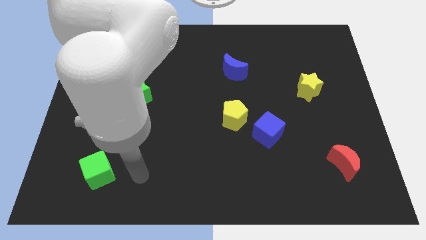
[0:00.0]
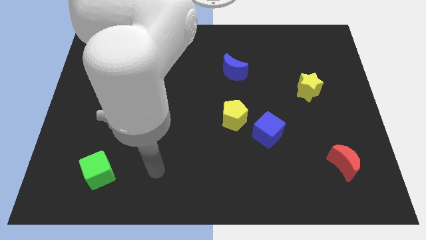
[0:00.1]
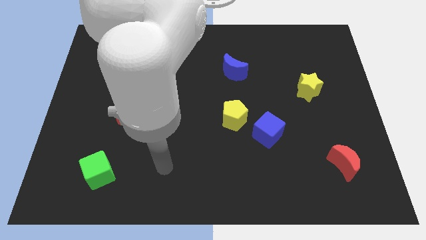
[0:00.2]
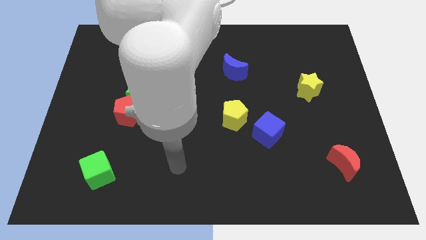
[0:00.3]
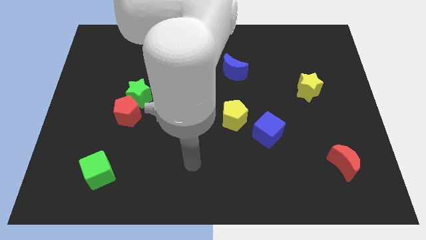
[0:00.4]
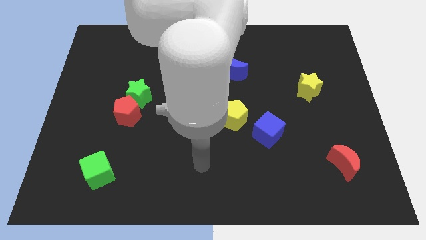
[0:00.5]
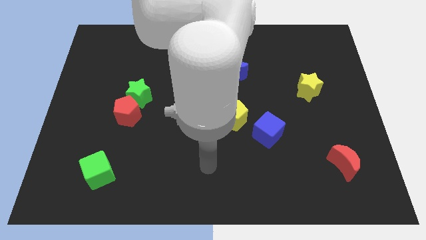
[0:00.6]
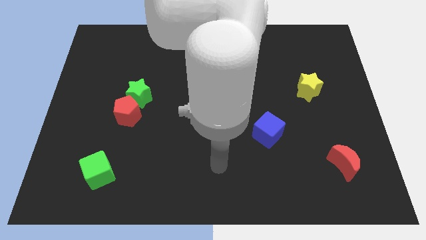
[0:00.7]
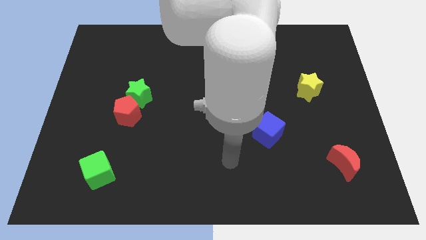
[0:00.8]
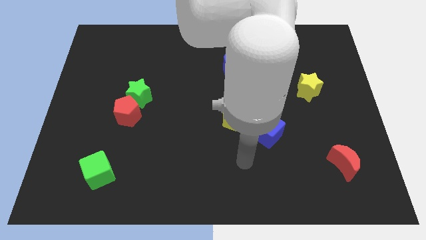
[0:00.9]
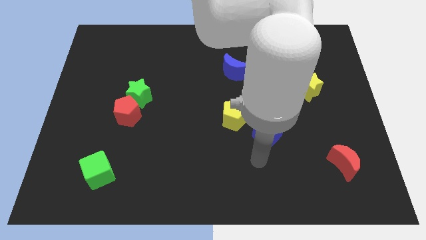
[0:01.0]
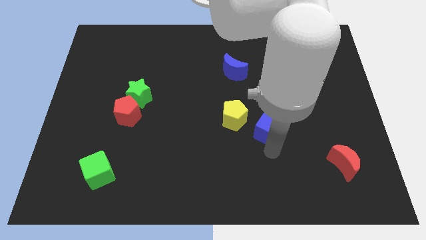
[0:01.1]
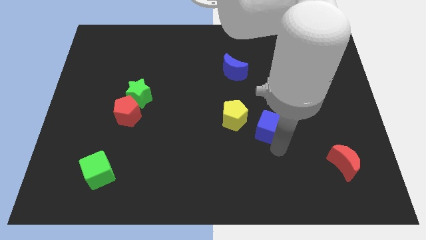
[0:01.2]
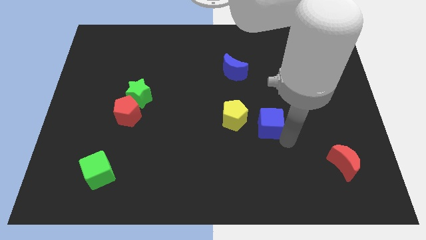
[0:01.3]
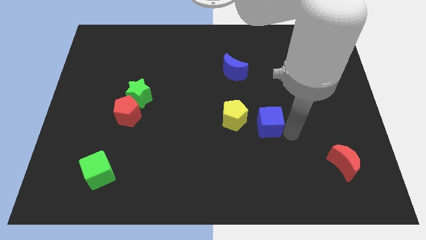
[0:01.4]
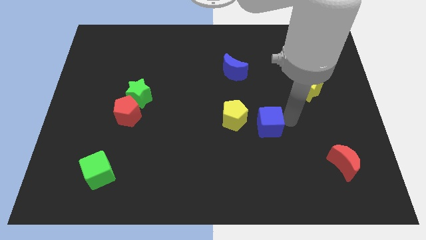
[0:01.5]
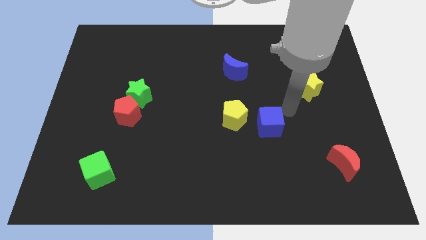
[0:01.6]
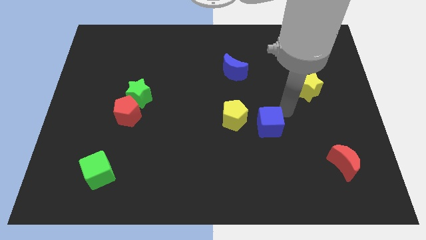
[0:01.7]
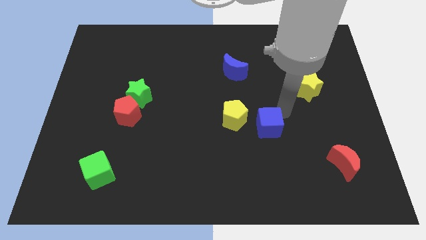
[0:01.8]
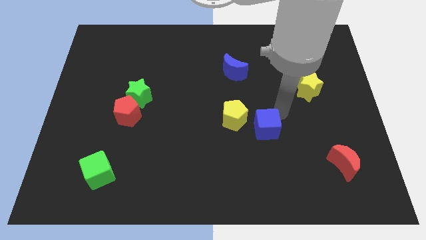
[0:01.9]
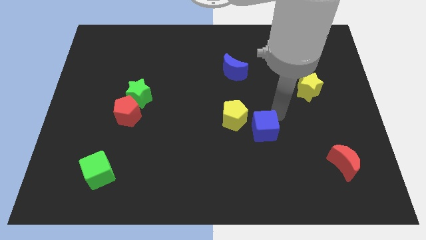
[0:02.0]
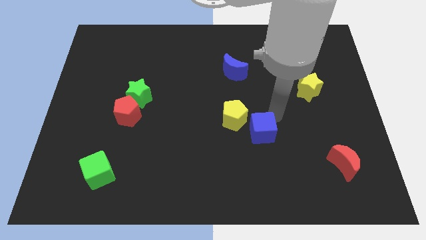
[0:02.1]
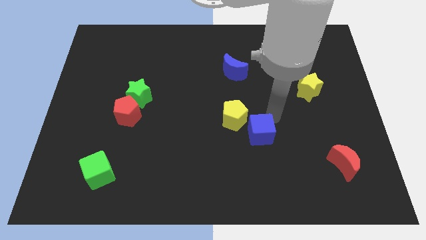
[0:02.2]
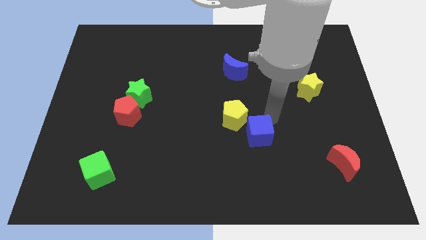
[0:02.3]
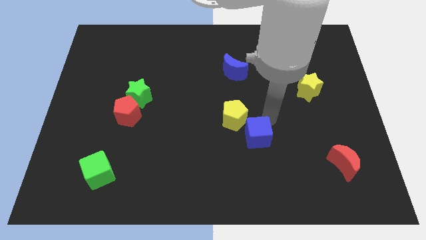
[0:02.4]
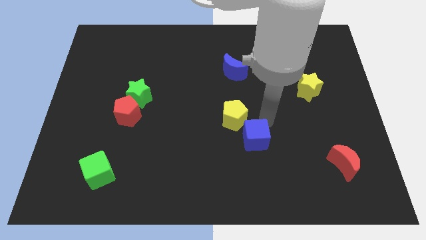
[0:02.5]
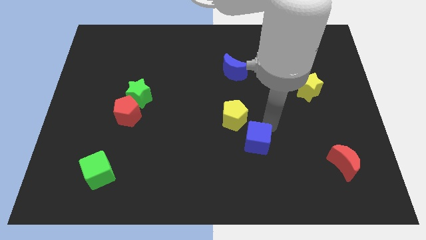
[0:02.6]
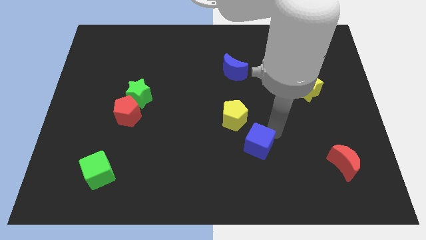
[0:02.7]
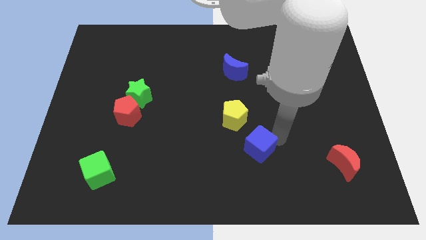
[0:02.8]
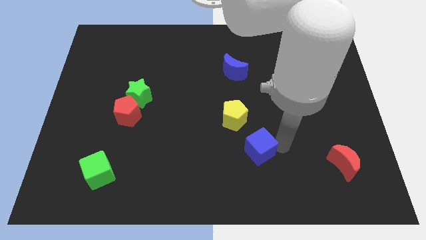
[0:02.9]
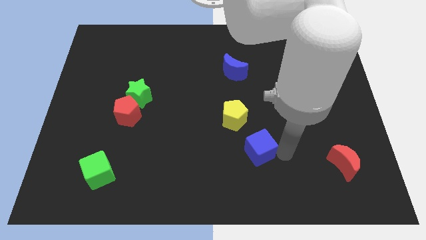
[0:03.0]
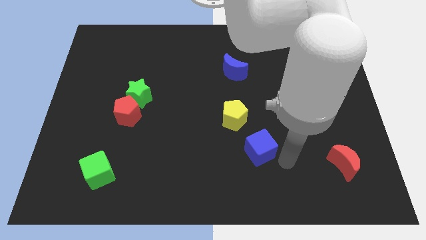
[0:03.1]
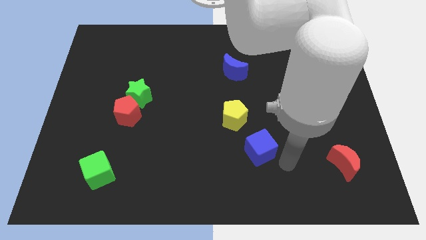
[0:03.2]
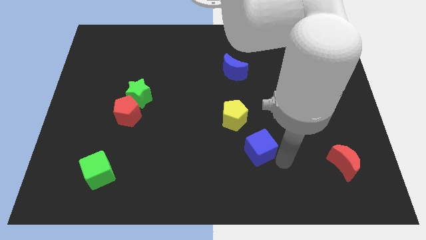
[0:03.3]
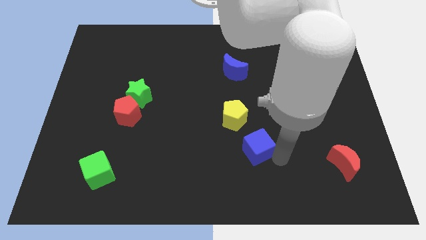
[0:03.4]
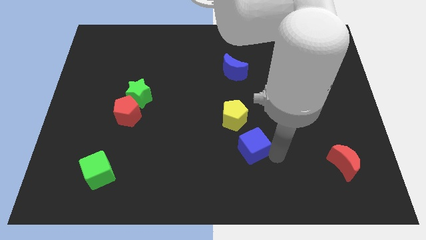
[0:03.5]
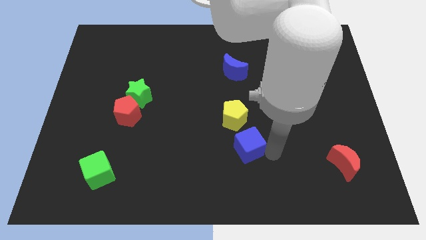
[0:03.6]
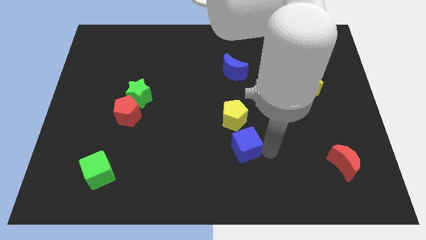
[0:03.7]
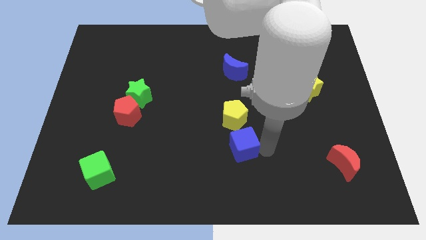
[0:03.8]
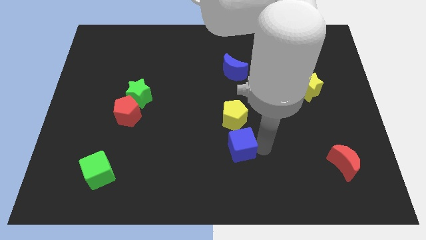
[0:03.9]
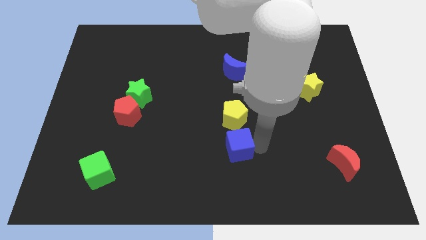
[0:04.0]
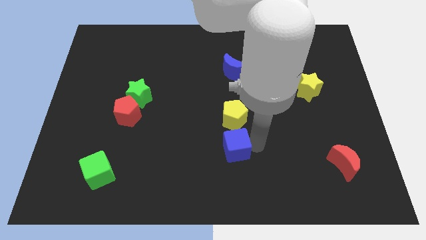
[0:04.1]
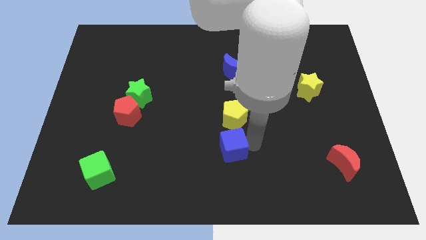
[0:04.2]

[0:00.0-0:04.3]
slide the blue cube a little to the left

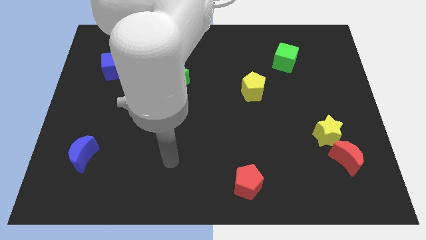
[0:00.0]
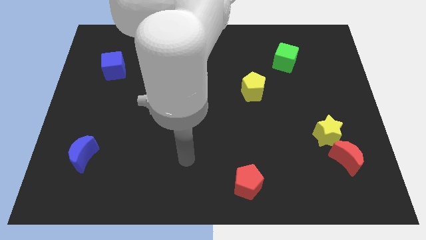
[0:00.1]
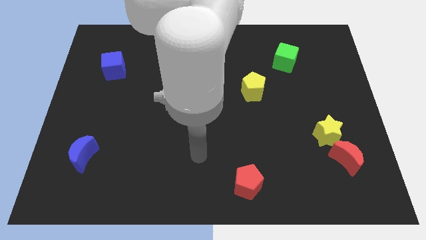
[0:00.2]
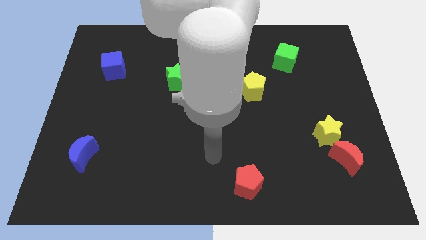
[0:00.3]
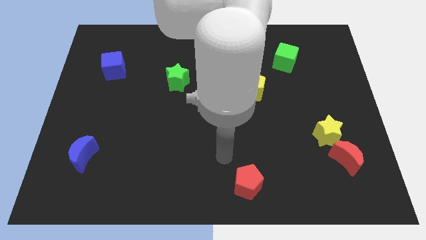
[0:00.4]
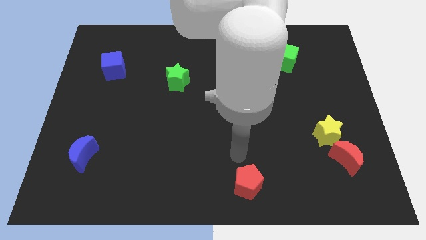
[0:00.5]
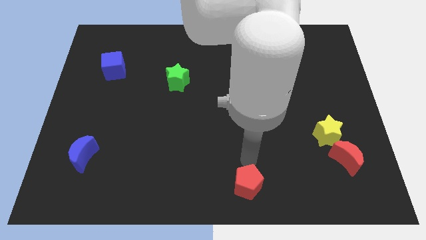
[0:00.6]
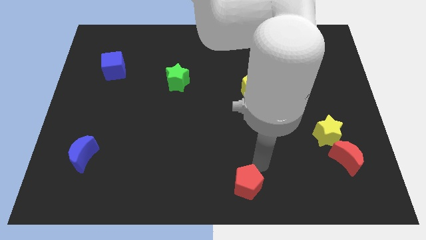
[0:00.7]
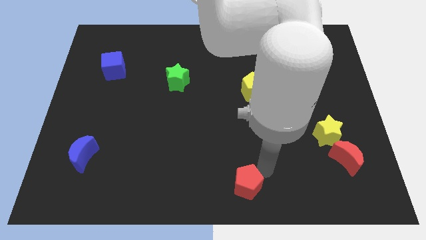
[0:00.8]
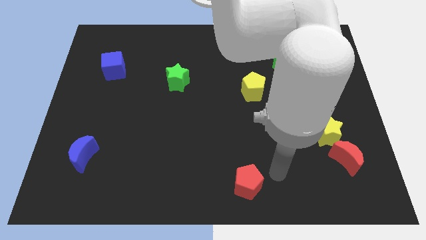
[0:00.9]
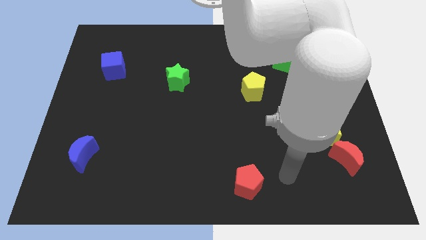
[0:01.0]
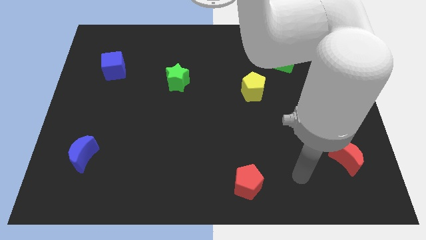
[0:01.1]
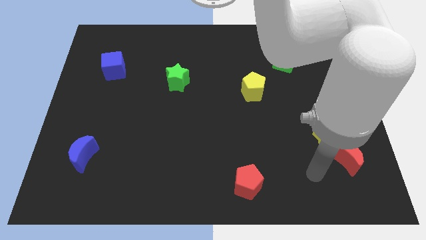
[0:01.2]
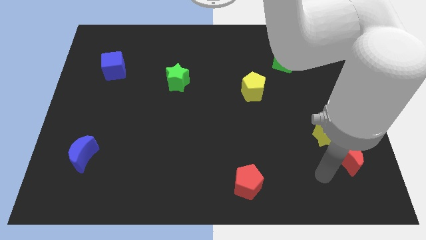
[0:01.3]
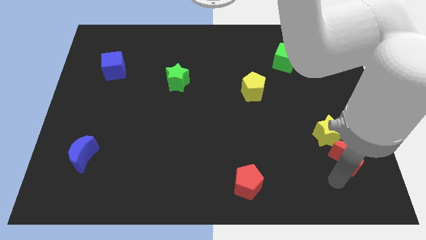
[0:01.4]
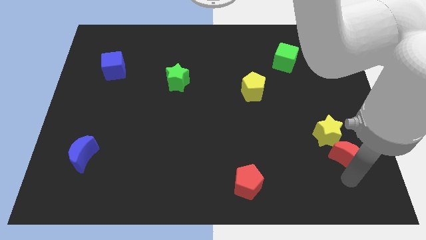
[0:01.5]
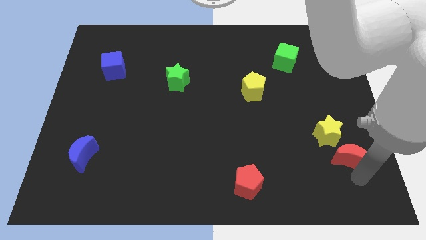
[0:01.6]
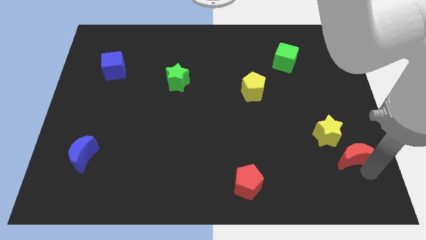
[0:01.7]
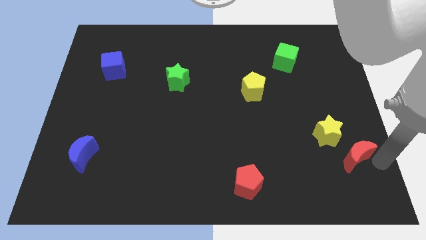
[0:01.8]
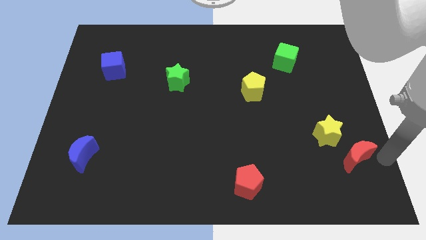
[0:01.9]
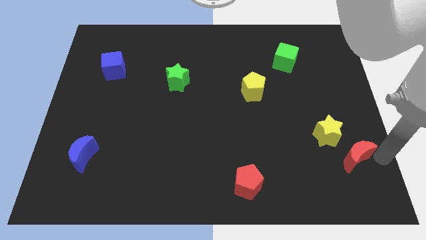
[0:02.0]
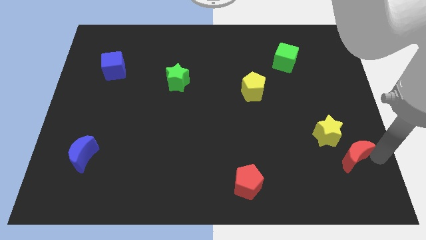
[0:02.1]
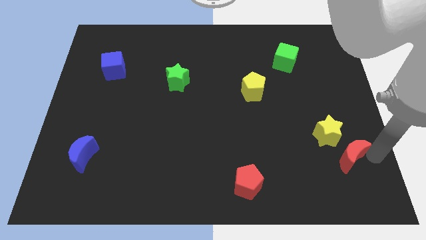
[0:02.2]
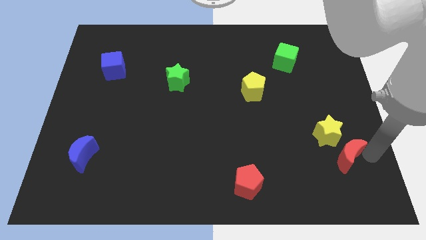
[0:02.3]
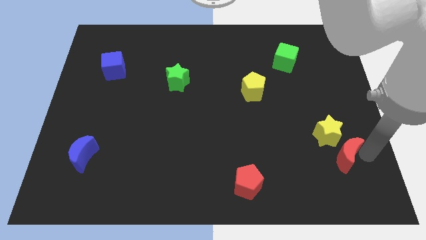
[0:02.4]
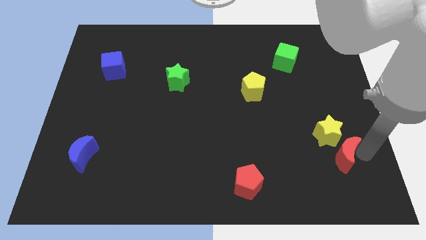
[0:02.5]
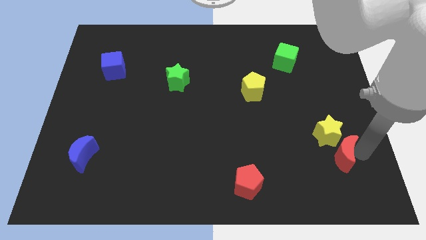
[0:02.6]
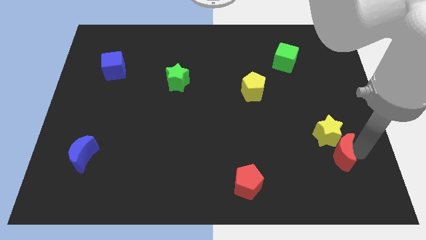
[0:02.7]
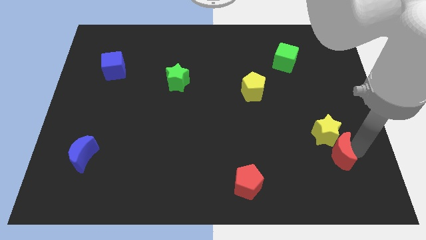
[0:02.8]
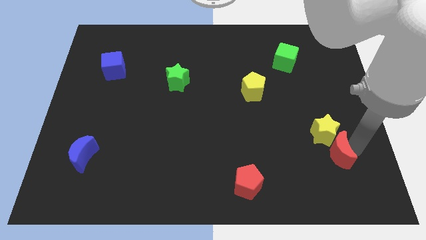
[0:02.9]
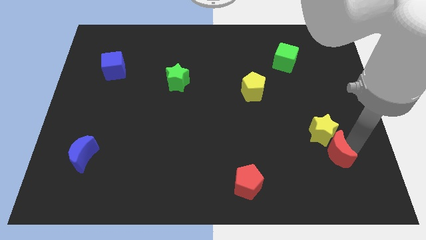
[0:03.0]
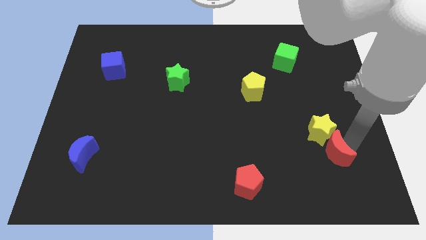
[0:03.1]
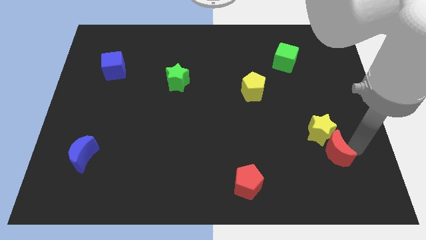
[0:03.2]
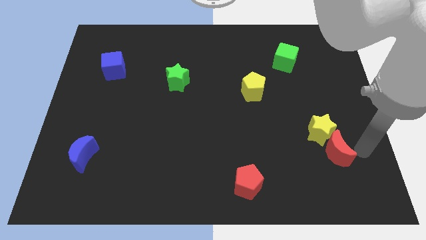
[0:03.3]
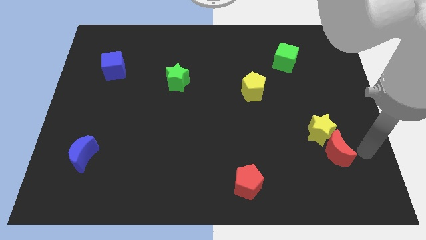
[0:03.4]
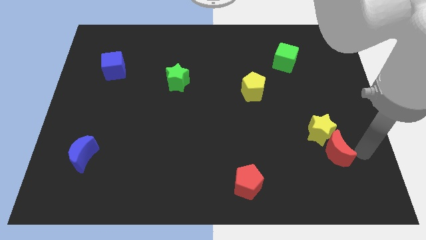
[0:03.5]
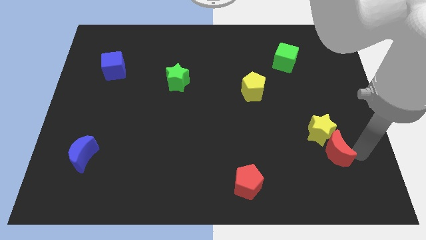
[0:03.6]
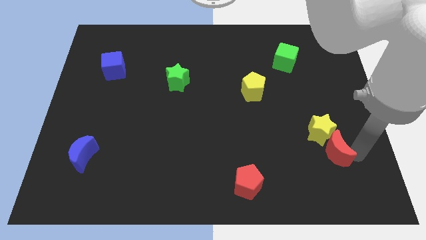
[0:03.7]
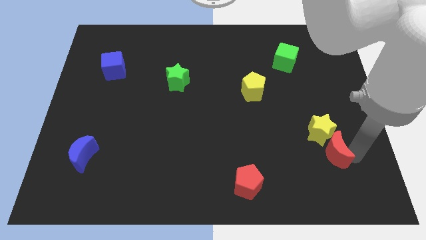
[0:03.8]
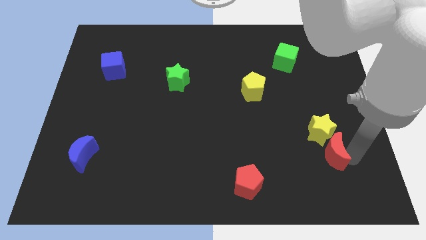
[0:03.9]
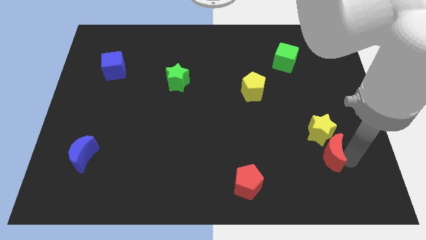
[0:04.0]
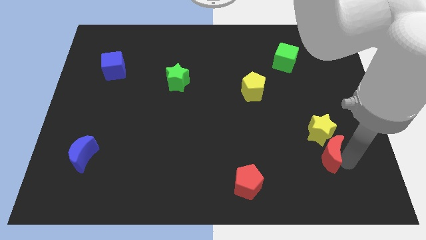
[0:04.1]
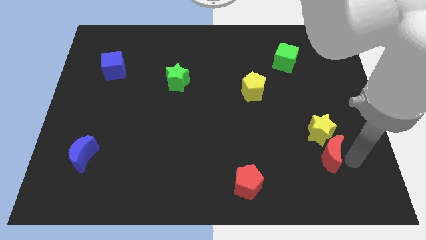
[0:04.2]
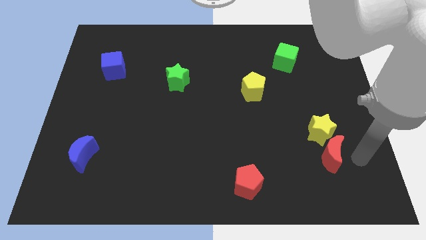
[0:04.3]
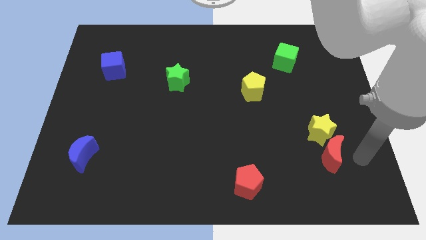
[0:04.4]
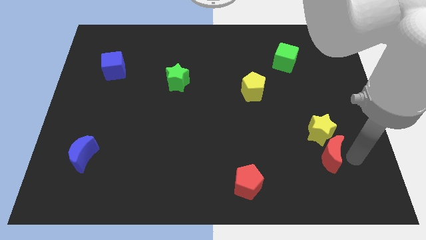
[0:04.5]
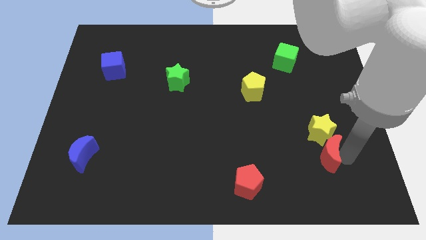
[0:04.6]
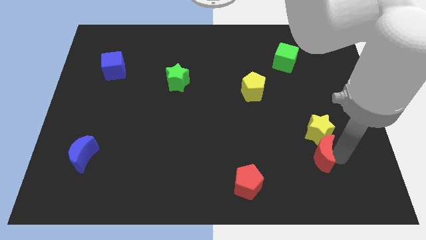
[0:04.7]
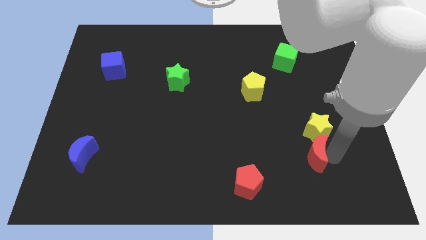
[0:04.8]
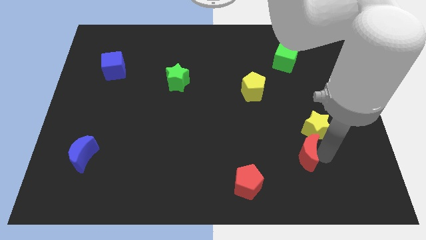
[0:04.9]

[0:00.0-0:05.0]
slide the red moon a little bit left
